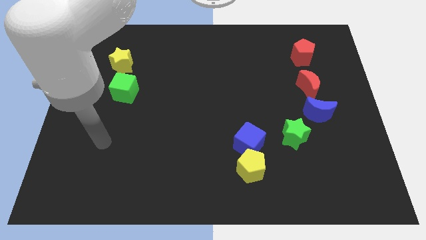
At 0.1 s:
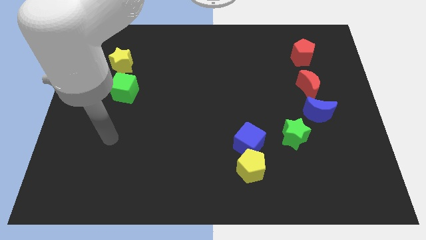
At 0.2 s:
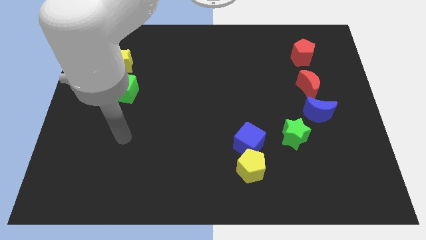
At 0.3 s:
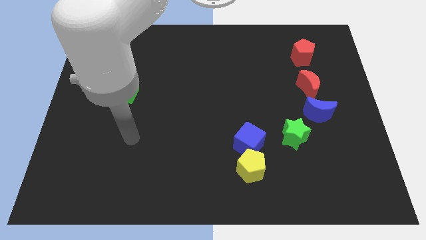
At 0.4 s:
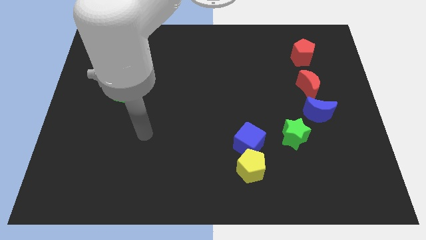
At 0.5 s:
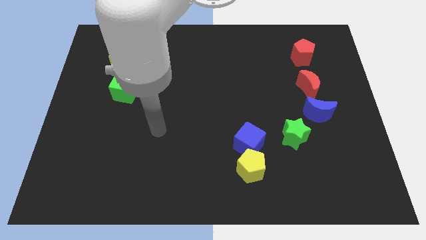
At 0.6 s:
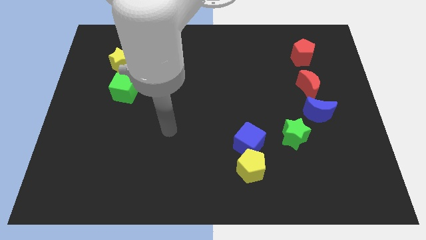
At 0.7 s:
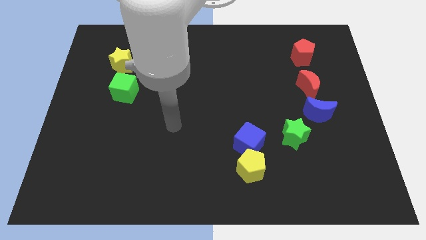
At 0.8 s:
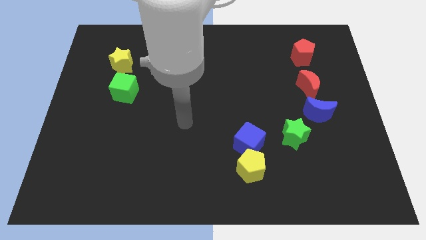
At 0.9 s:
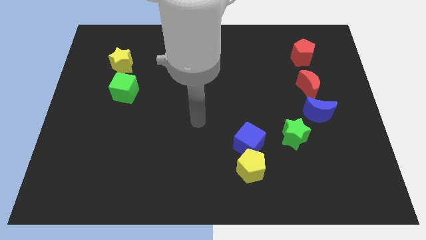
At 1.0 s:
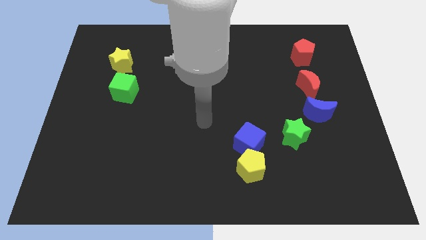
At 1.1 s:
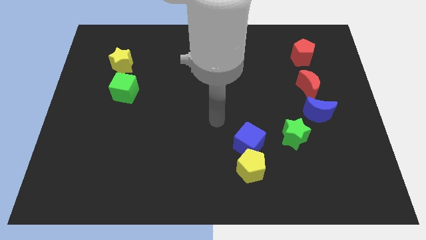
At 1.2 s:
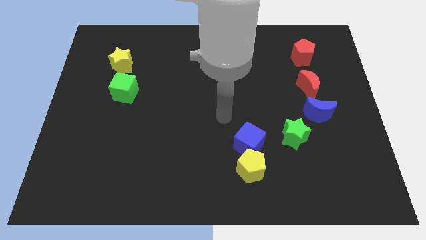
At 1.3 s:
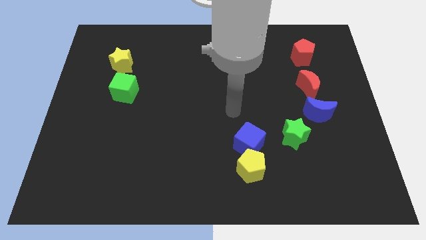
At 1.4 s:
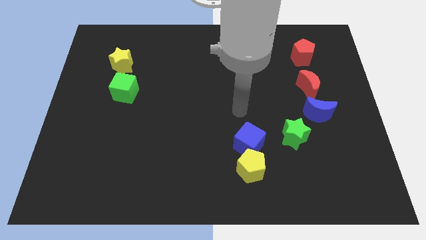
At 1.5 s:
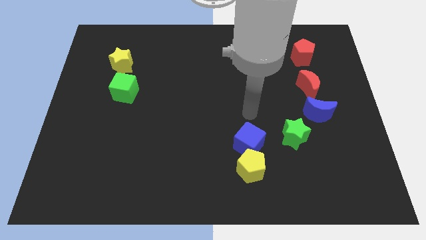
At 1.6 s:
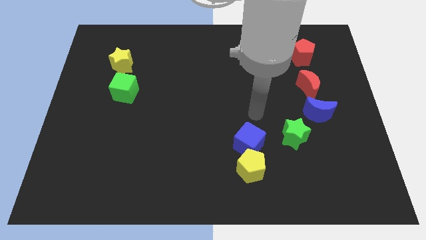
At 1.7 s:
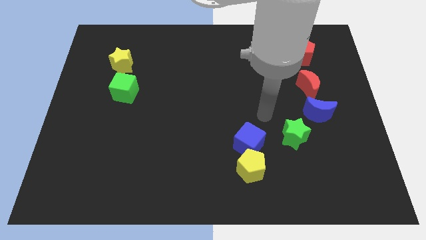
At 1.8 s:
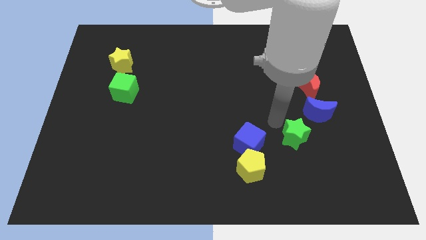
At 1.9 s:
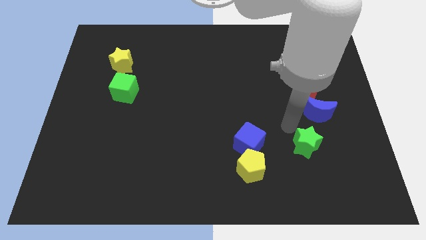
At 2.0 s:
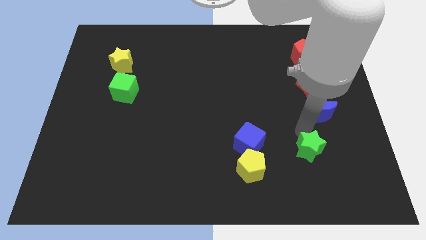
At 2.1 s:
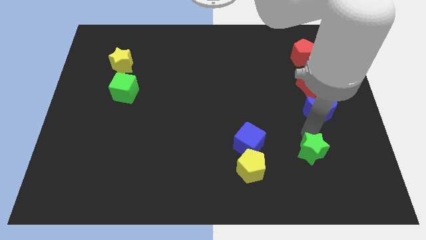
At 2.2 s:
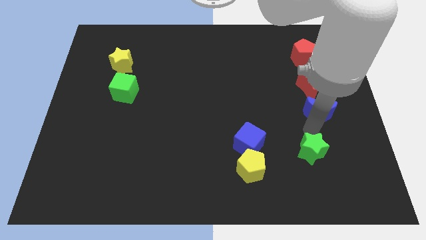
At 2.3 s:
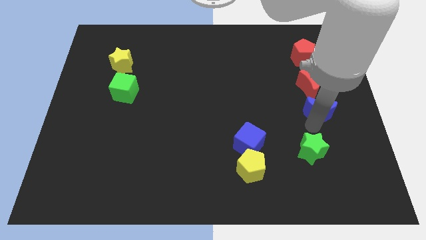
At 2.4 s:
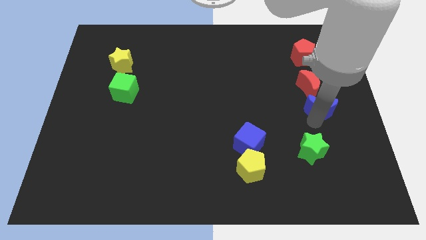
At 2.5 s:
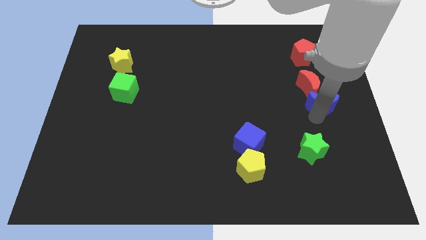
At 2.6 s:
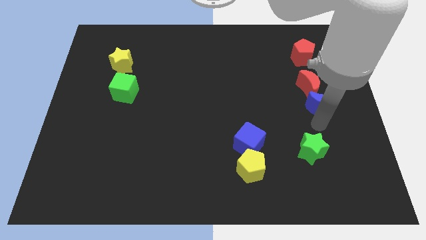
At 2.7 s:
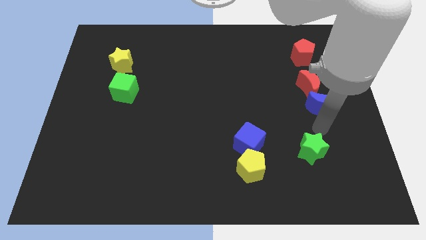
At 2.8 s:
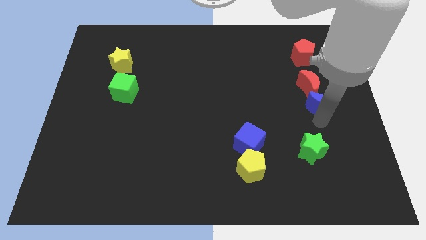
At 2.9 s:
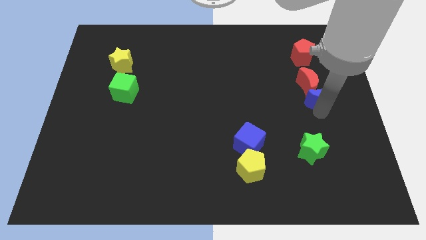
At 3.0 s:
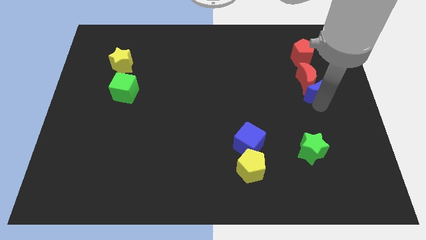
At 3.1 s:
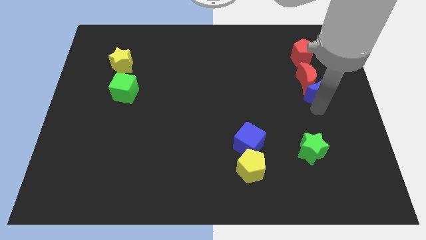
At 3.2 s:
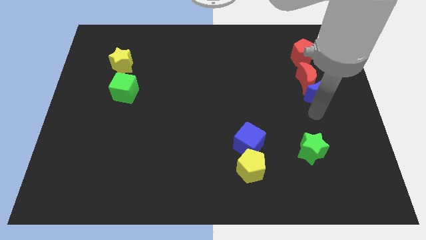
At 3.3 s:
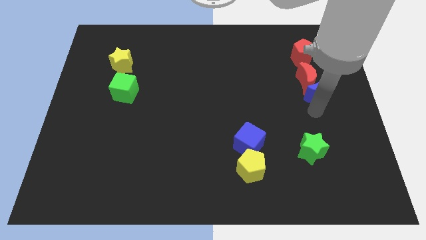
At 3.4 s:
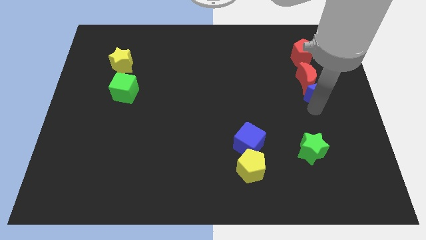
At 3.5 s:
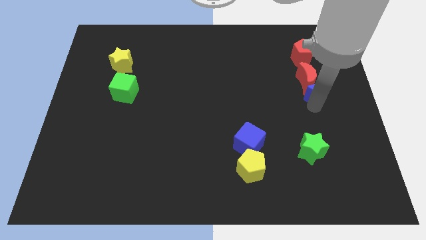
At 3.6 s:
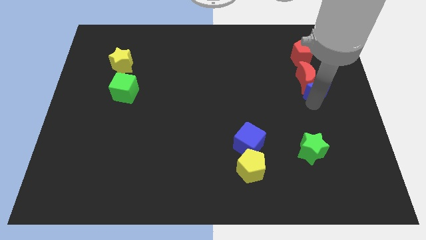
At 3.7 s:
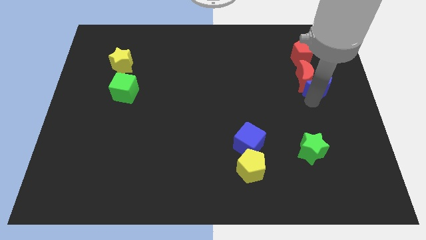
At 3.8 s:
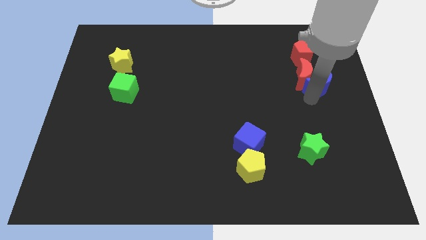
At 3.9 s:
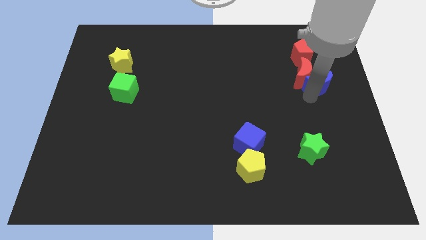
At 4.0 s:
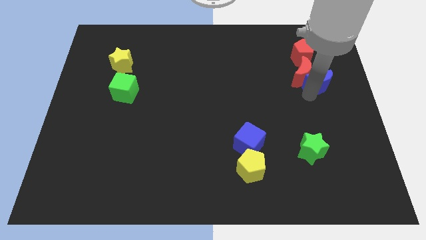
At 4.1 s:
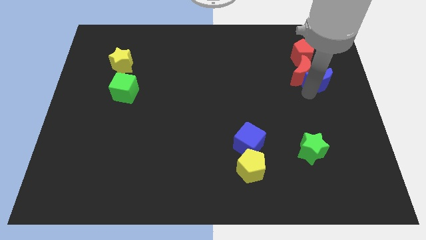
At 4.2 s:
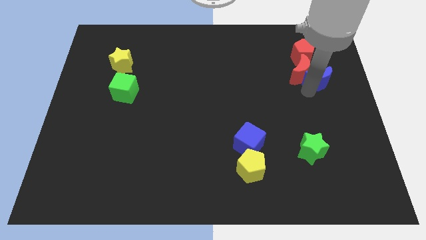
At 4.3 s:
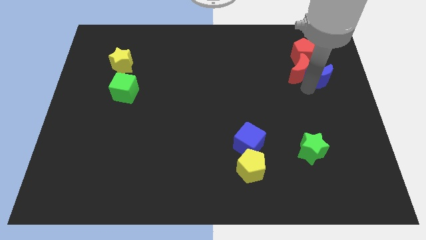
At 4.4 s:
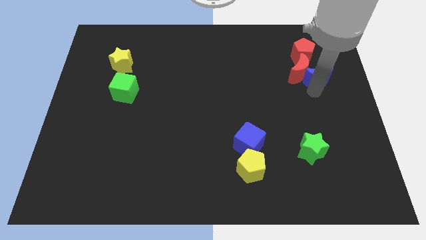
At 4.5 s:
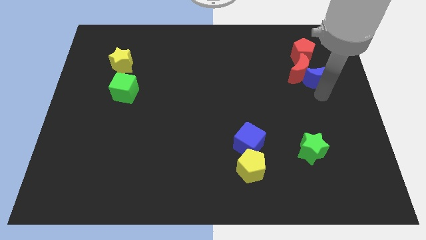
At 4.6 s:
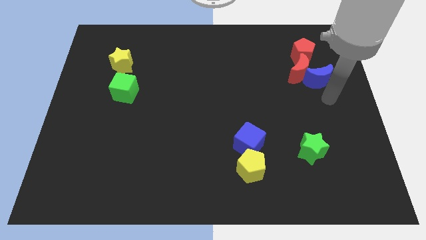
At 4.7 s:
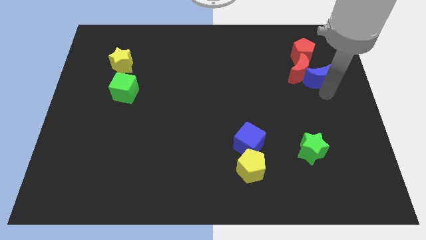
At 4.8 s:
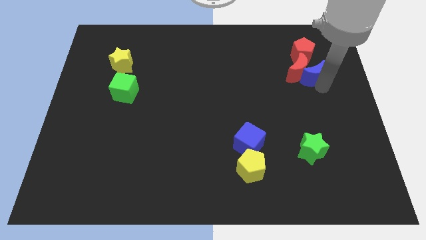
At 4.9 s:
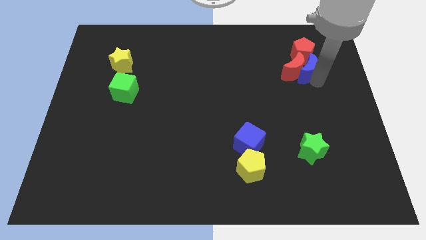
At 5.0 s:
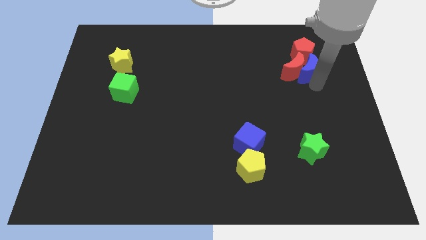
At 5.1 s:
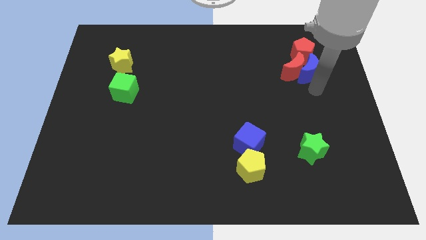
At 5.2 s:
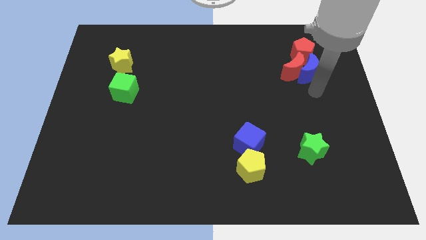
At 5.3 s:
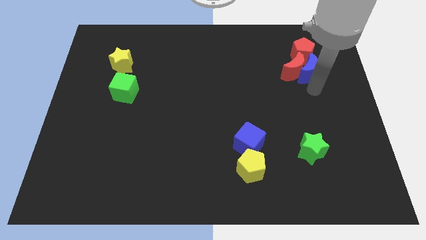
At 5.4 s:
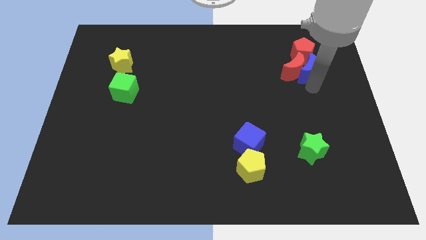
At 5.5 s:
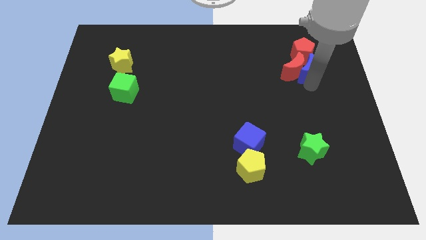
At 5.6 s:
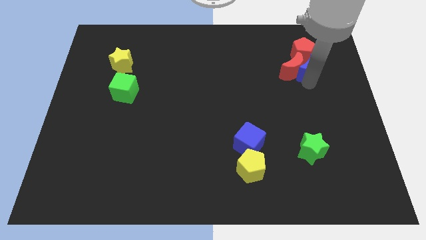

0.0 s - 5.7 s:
put the blue moon close to the red pentagon

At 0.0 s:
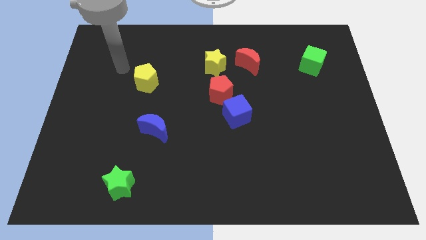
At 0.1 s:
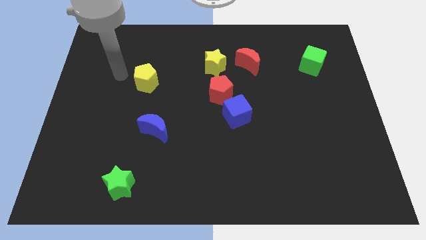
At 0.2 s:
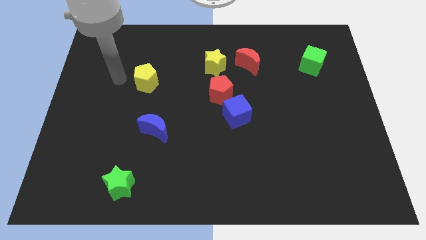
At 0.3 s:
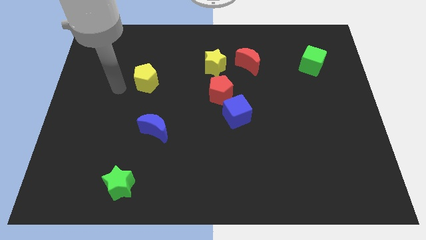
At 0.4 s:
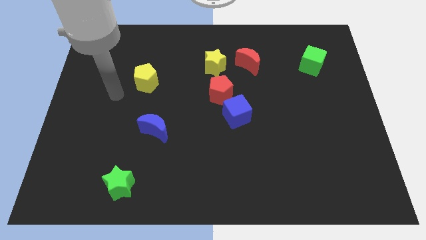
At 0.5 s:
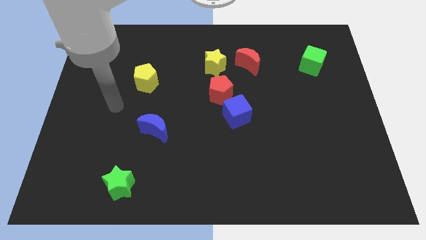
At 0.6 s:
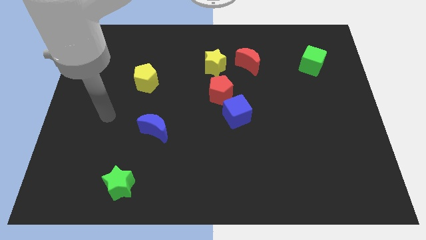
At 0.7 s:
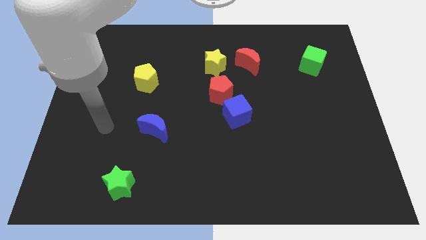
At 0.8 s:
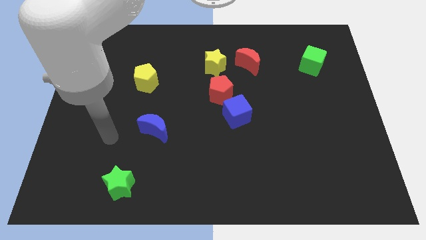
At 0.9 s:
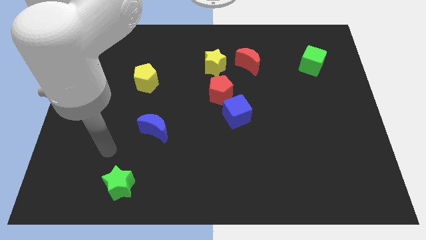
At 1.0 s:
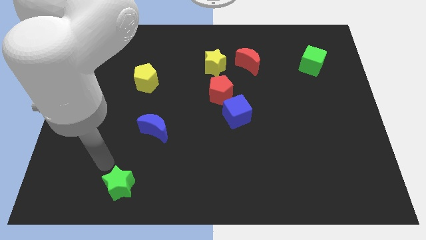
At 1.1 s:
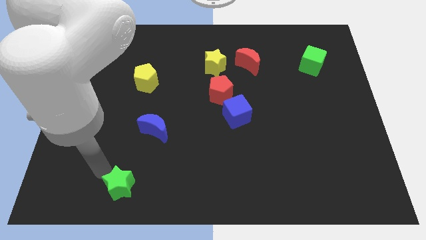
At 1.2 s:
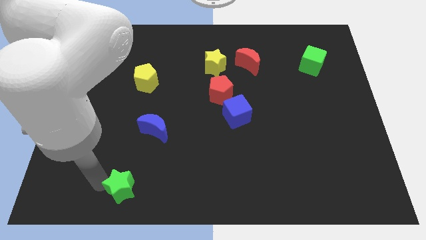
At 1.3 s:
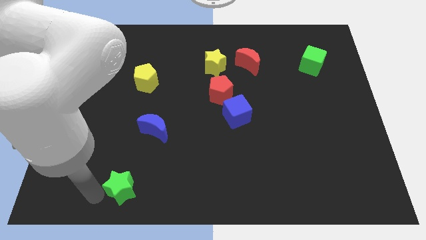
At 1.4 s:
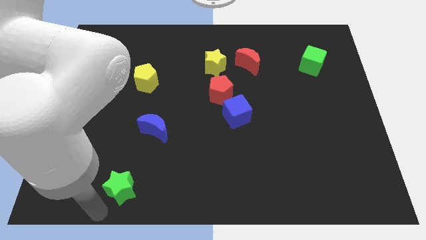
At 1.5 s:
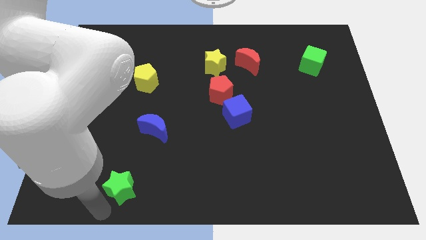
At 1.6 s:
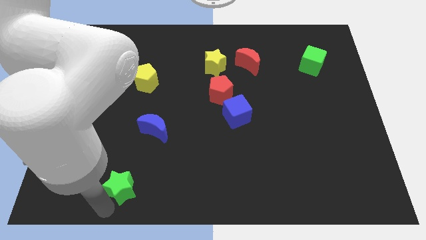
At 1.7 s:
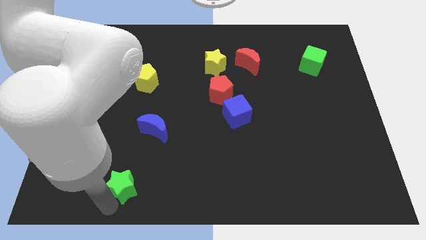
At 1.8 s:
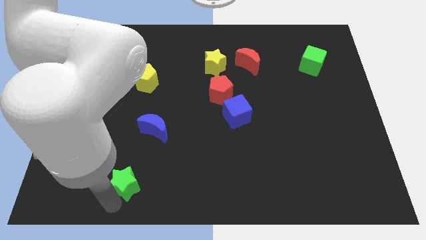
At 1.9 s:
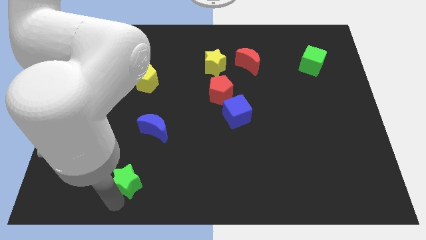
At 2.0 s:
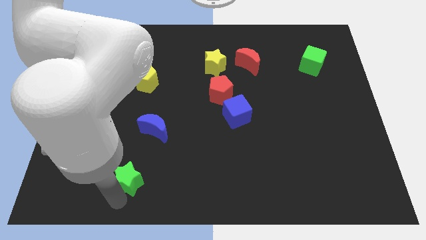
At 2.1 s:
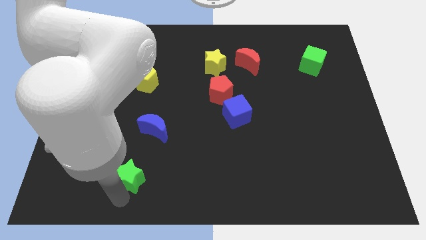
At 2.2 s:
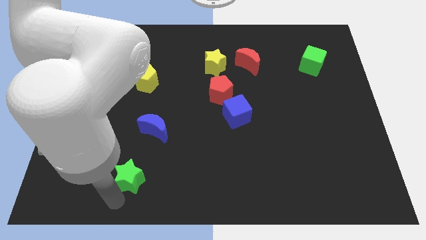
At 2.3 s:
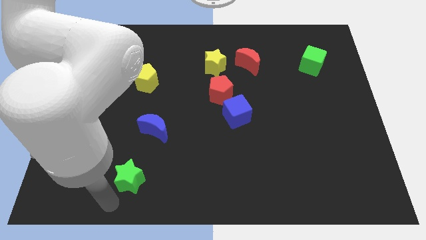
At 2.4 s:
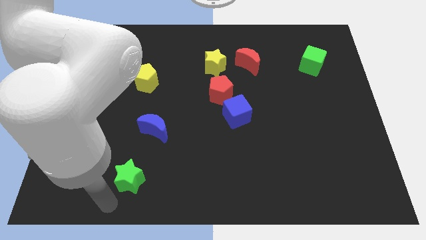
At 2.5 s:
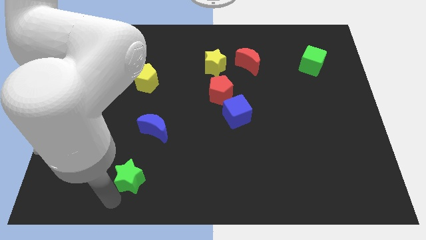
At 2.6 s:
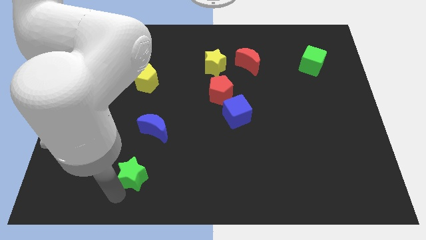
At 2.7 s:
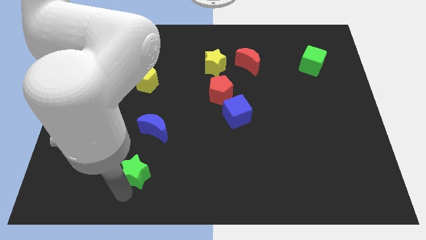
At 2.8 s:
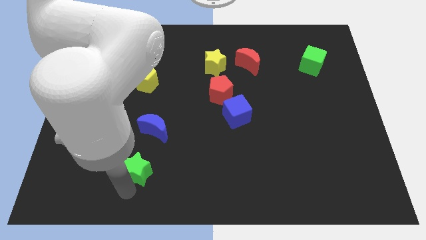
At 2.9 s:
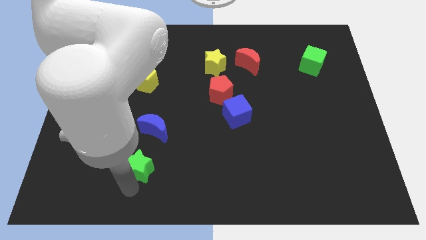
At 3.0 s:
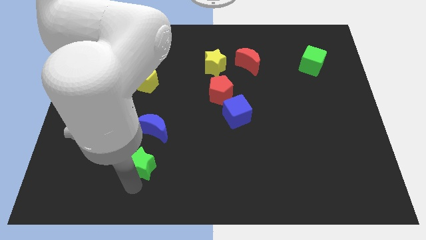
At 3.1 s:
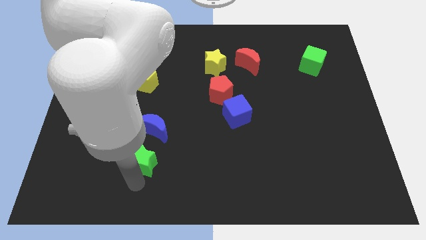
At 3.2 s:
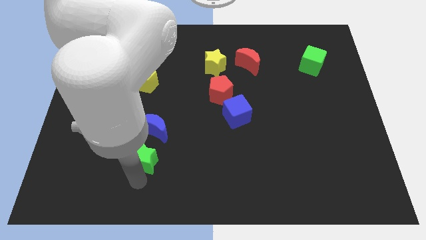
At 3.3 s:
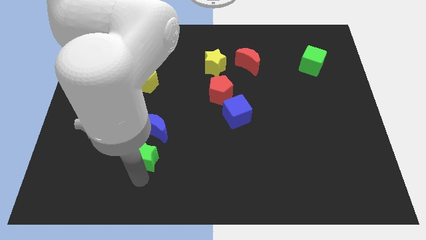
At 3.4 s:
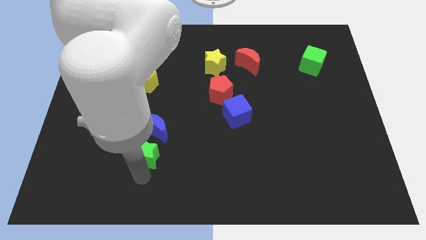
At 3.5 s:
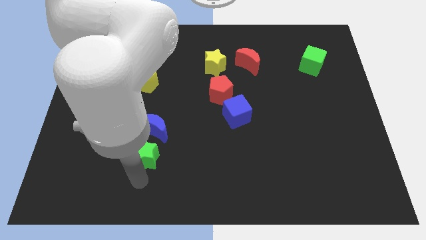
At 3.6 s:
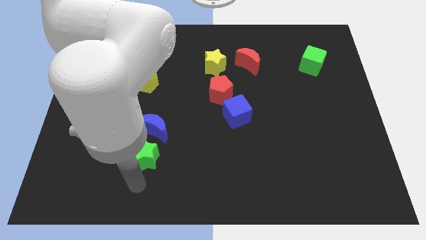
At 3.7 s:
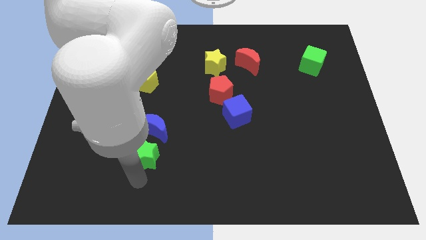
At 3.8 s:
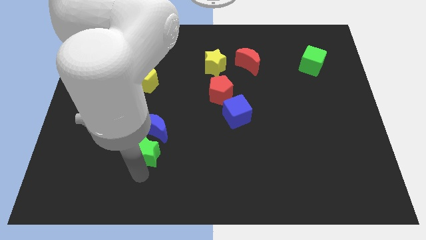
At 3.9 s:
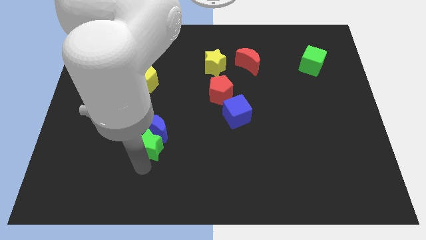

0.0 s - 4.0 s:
slide the green star to the blue moon
